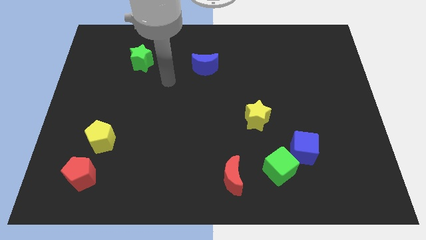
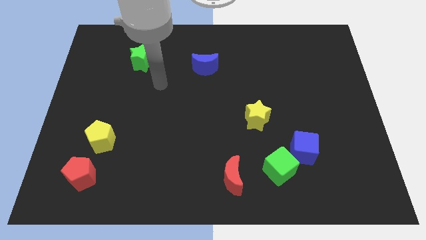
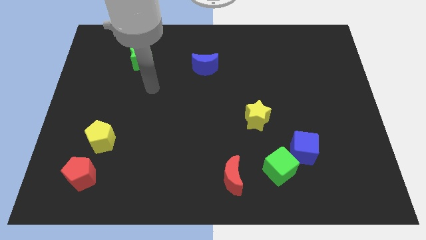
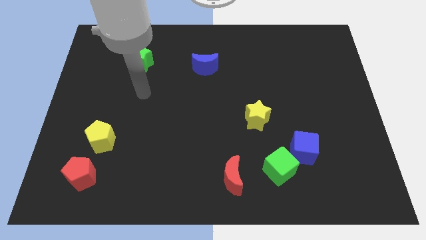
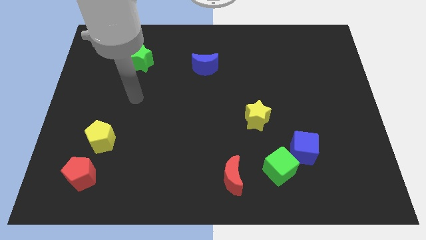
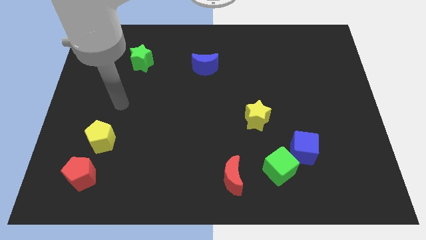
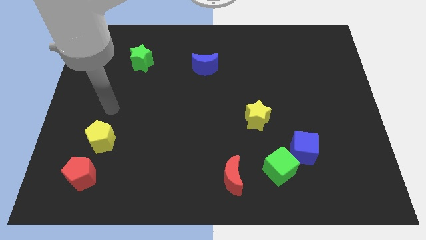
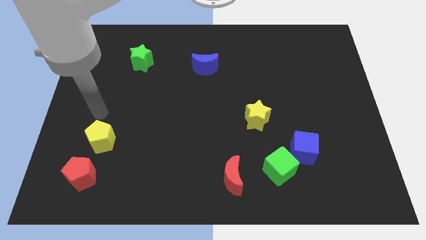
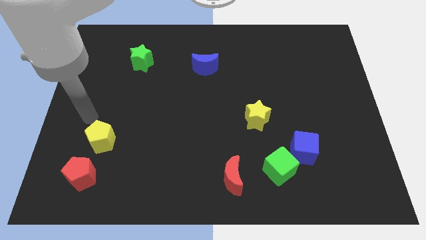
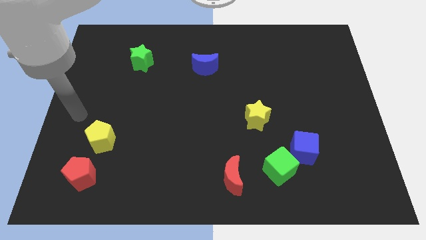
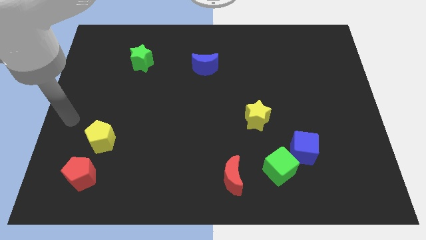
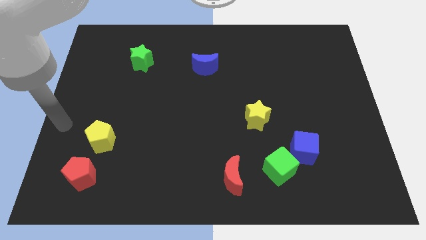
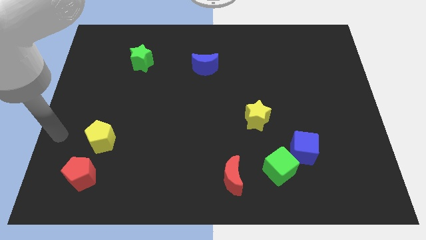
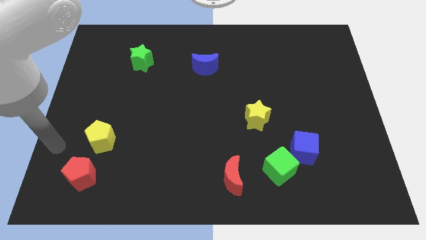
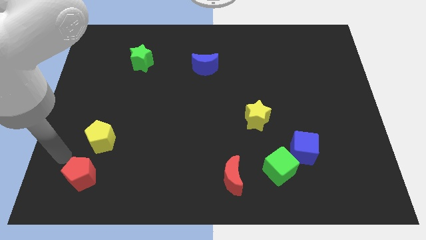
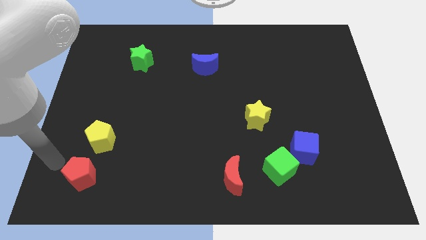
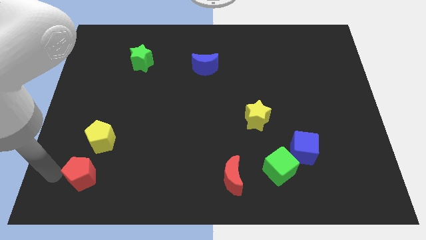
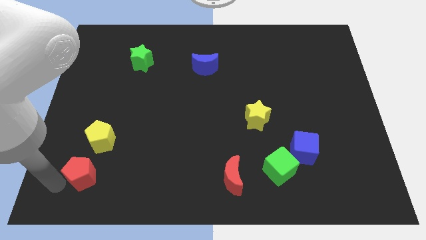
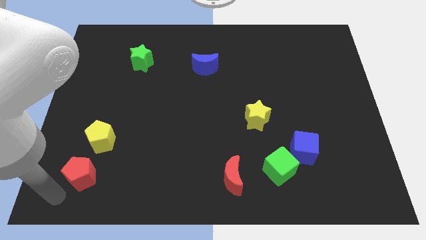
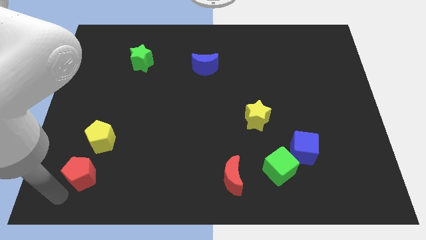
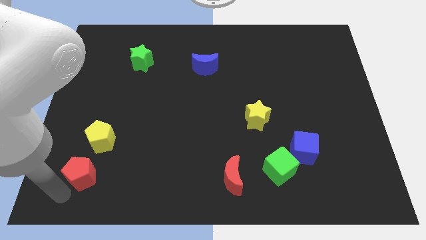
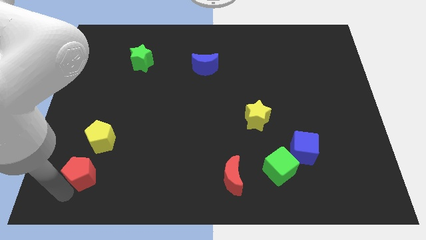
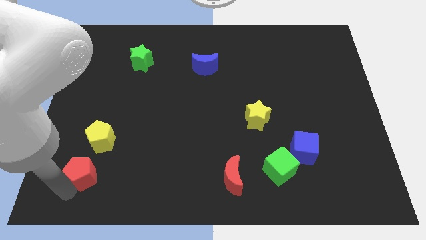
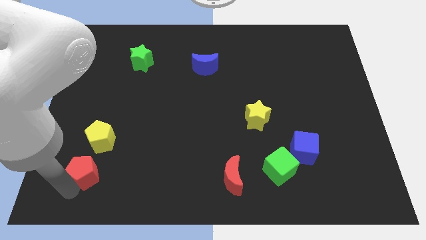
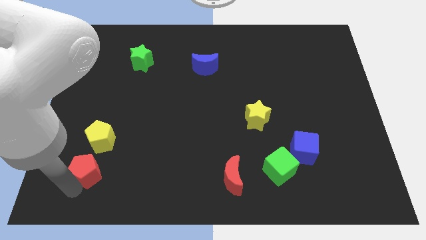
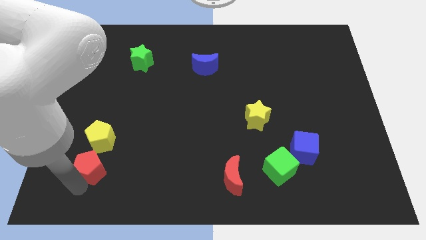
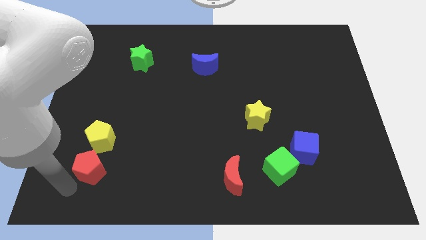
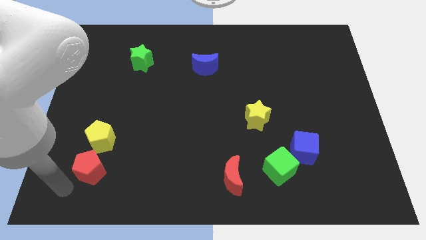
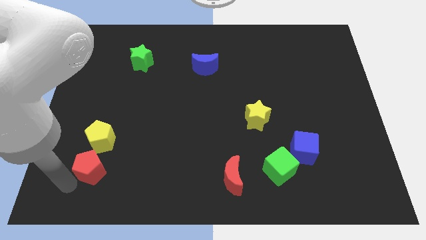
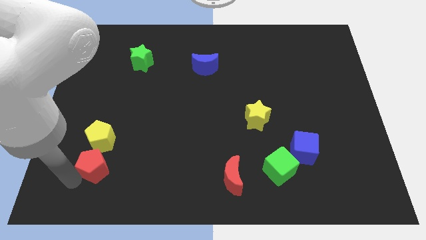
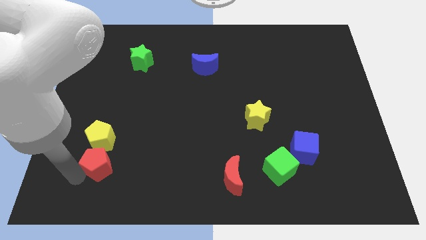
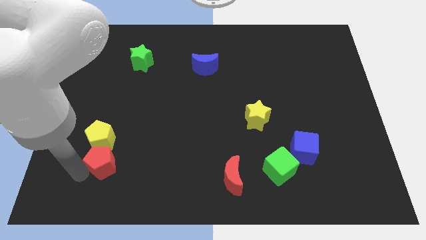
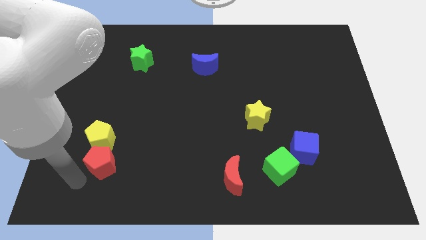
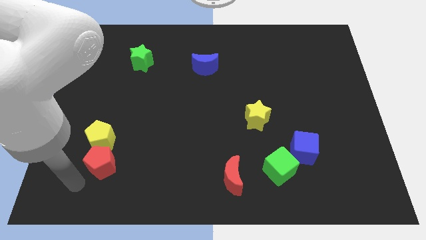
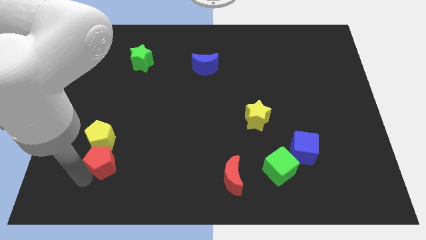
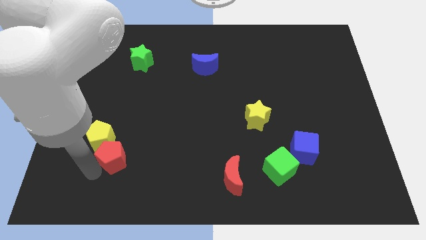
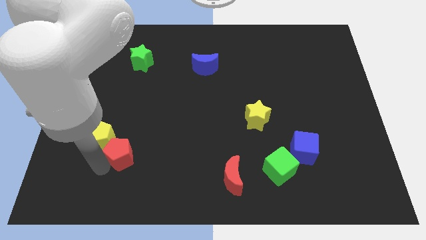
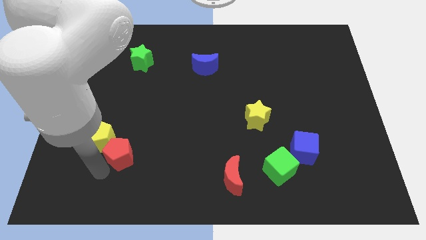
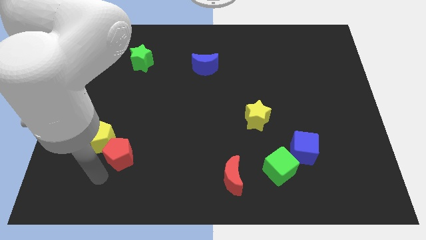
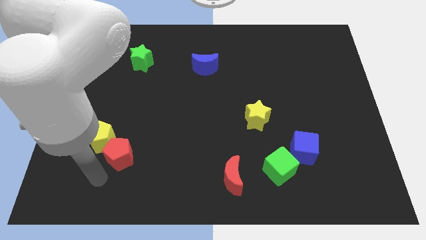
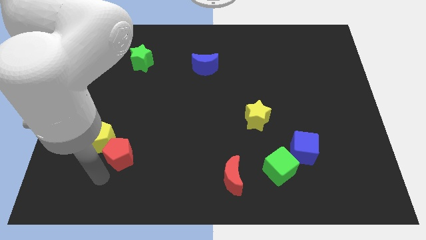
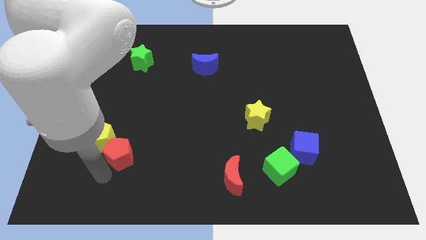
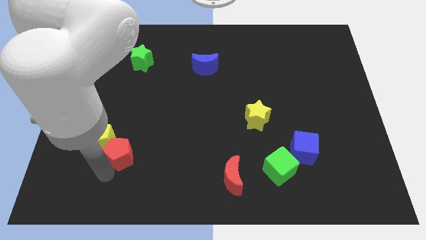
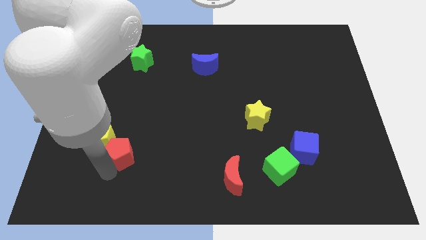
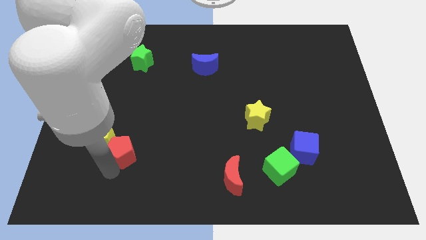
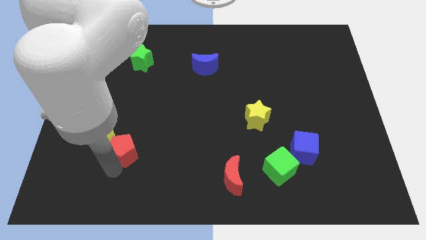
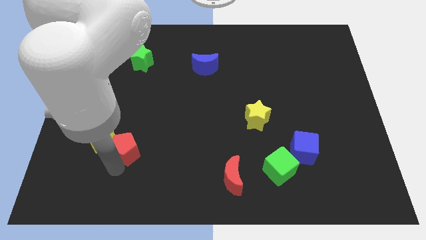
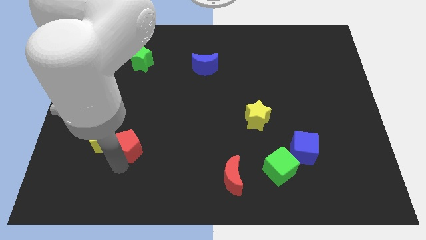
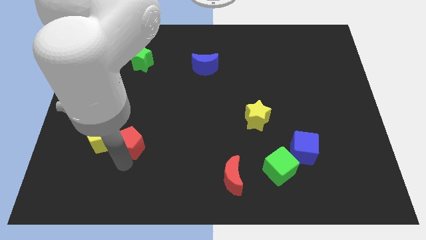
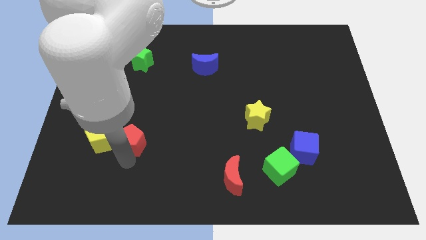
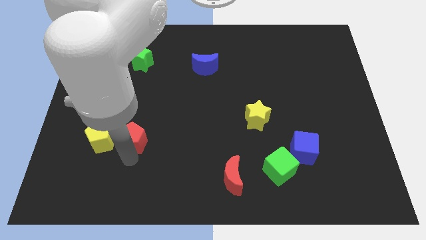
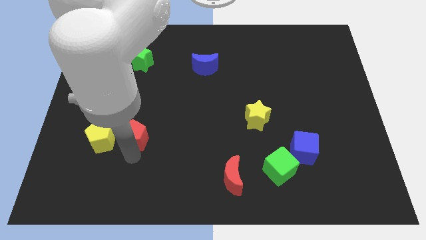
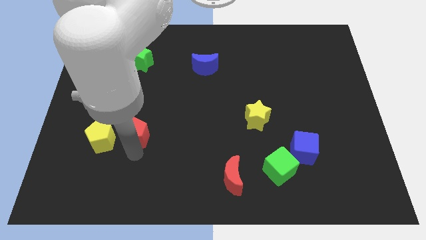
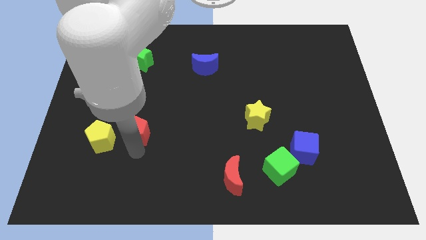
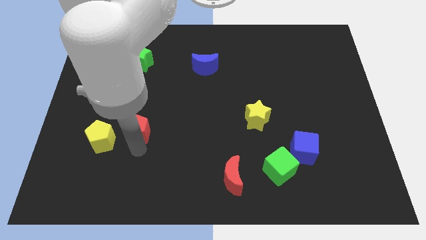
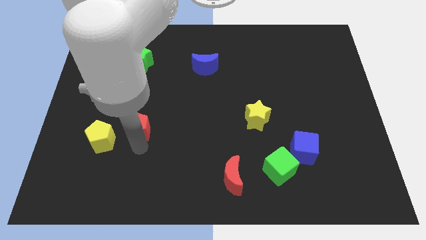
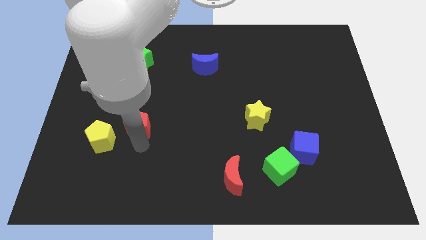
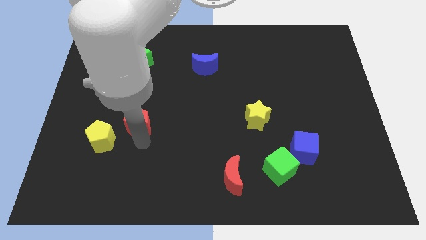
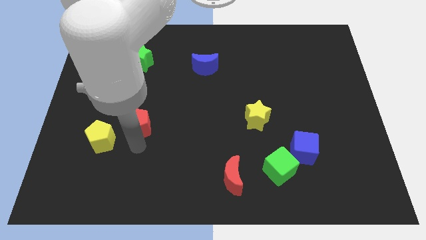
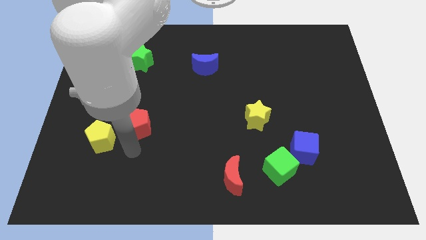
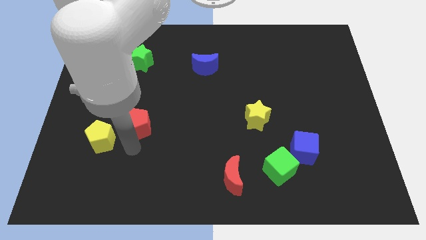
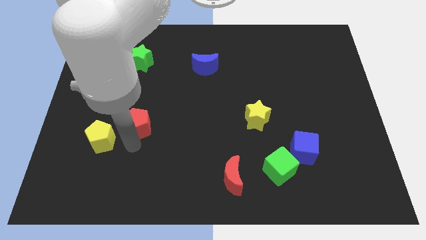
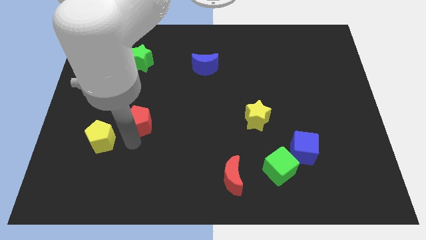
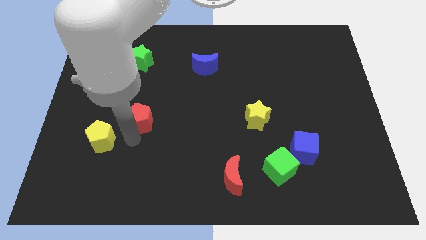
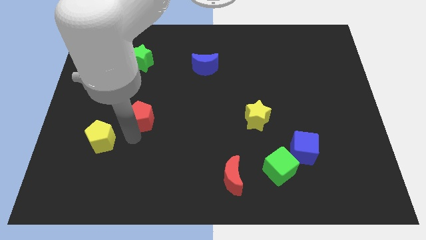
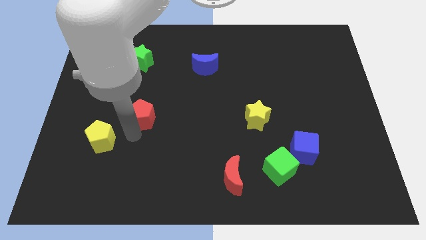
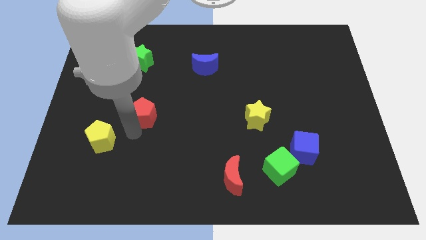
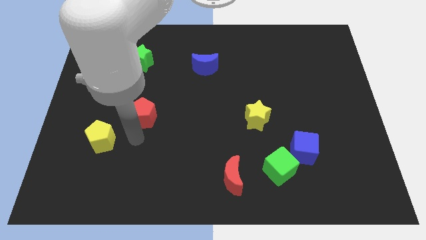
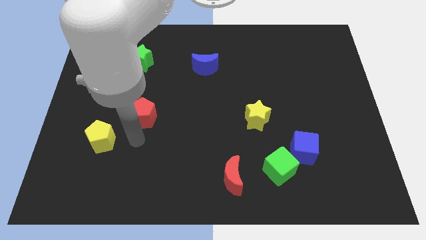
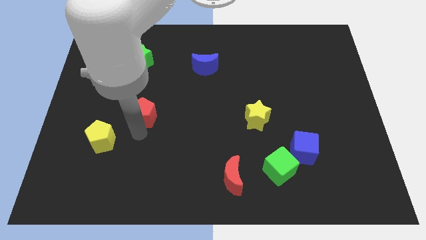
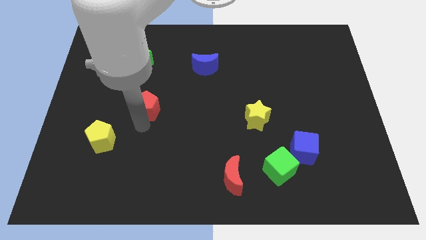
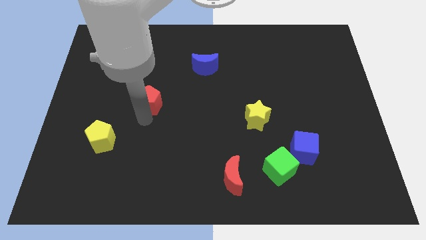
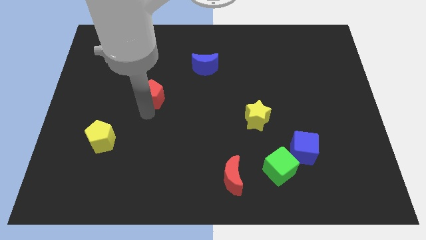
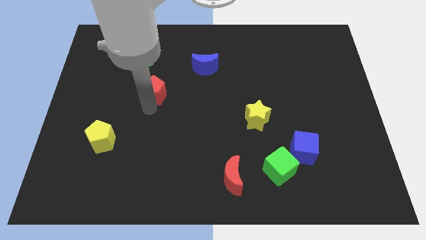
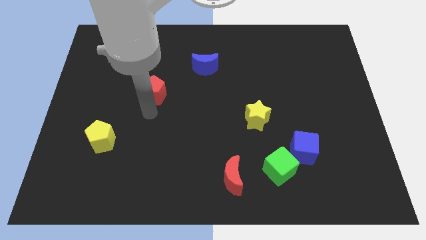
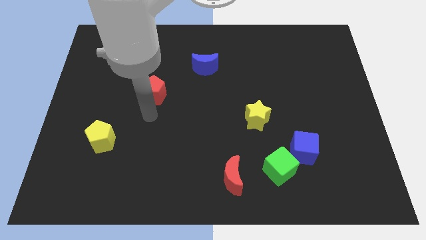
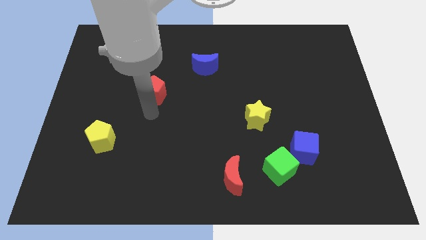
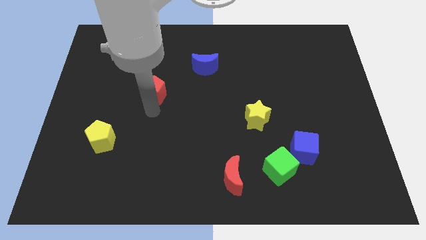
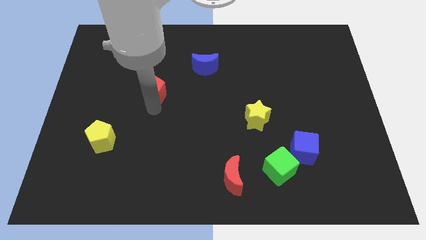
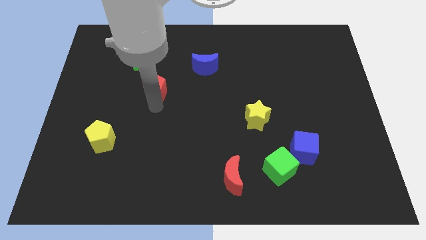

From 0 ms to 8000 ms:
slide the red pentagon to the bottom right of the green star
